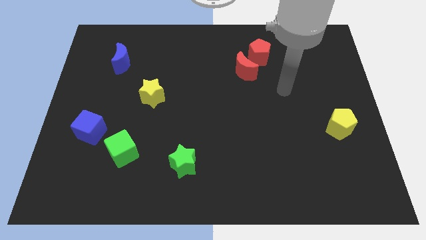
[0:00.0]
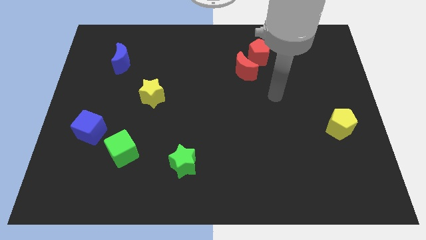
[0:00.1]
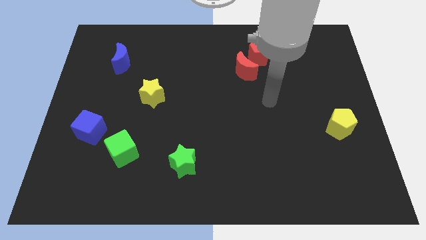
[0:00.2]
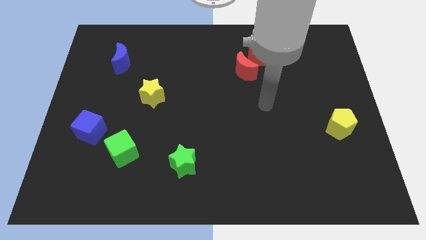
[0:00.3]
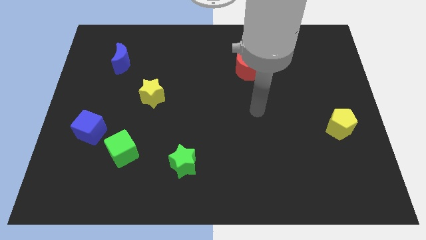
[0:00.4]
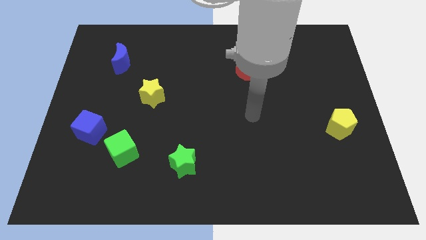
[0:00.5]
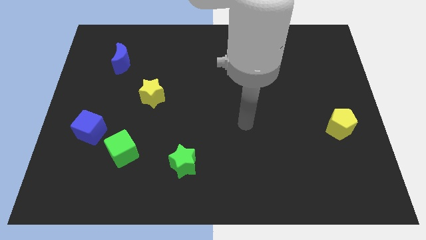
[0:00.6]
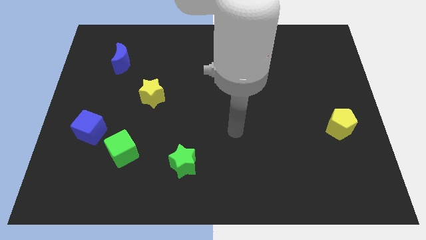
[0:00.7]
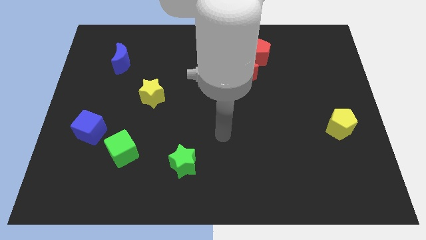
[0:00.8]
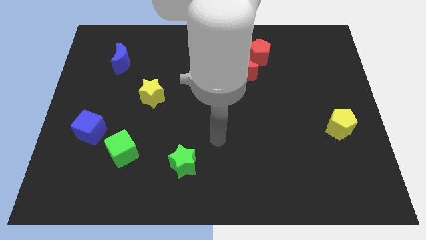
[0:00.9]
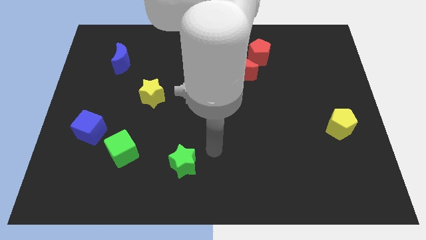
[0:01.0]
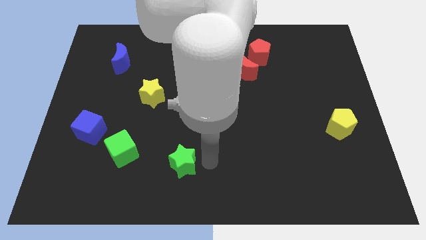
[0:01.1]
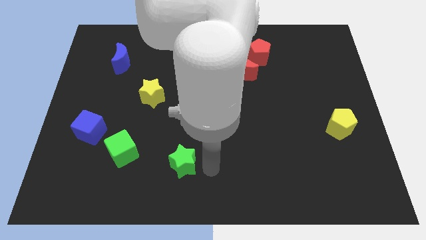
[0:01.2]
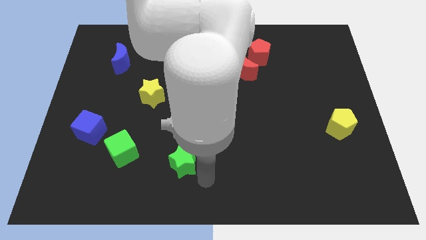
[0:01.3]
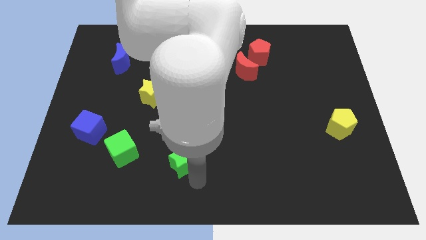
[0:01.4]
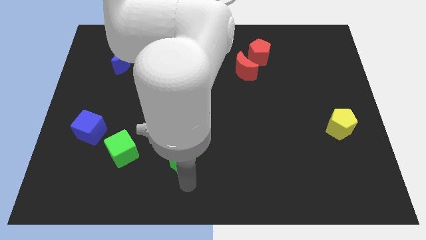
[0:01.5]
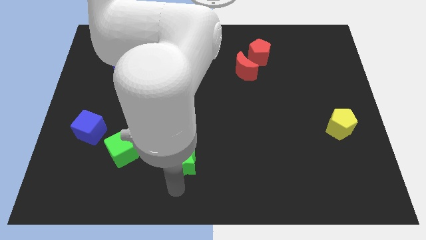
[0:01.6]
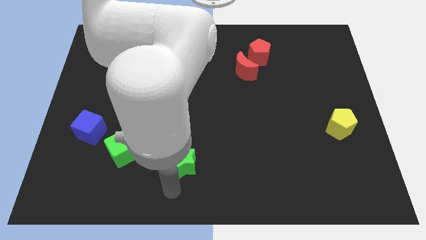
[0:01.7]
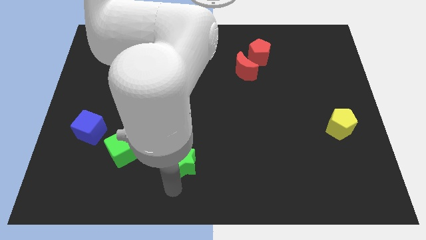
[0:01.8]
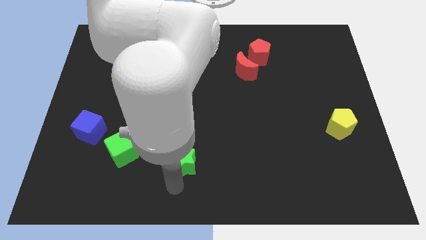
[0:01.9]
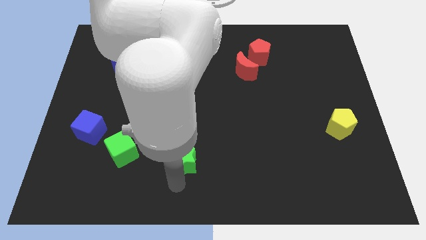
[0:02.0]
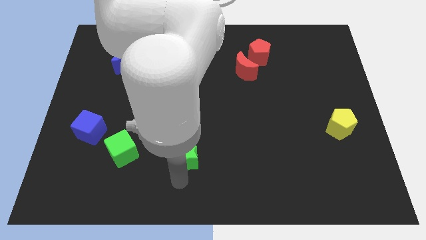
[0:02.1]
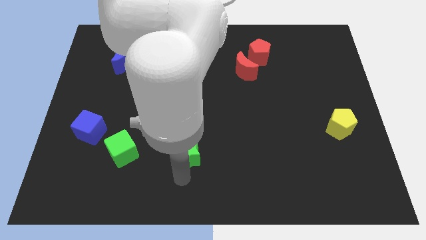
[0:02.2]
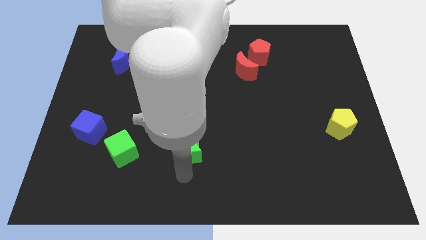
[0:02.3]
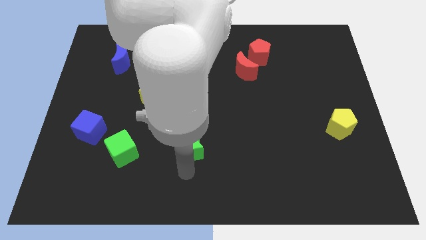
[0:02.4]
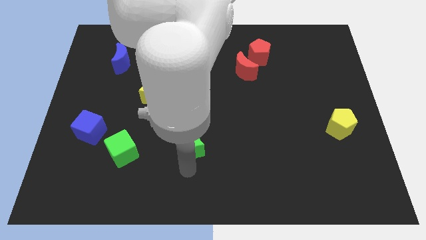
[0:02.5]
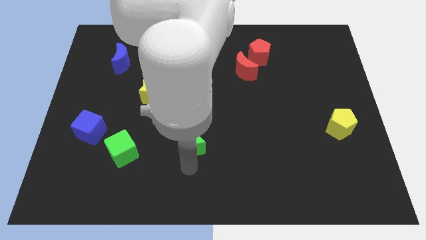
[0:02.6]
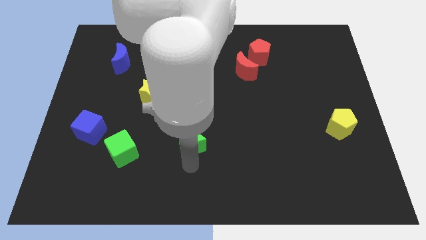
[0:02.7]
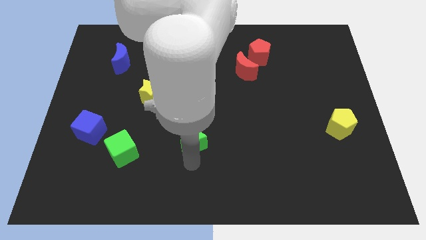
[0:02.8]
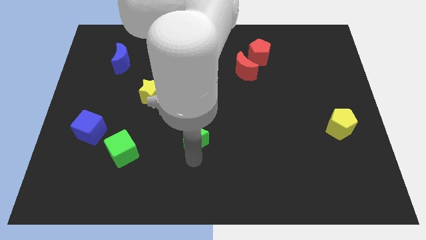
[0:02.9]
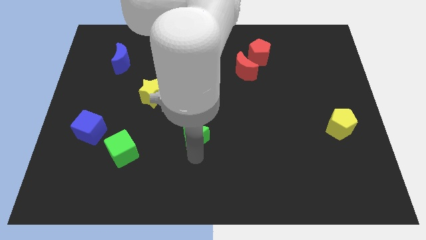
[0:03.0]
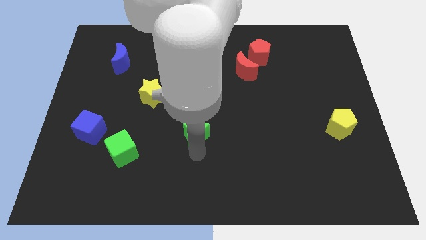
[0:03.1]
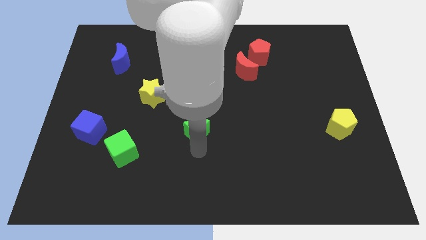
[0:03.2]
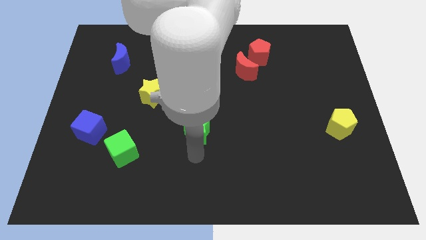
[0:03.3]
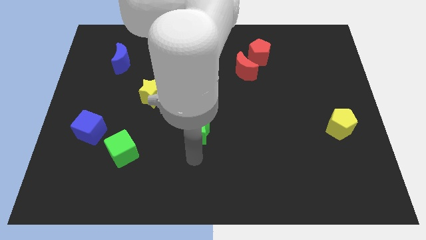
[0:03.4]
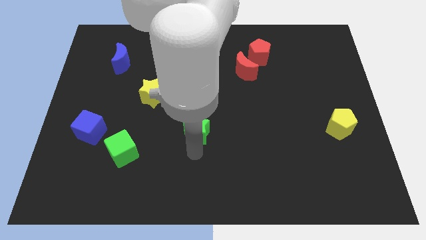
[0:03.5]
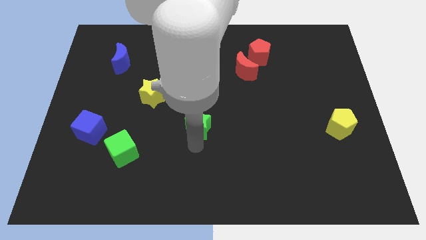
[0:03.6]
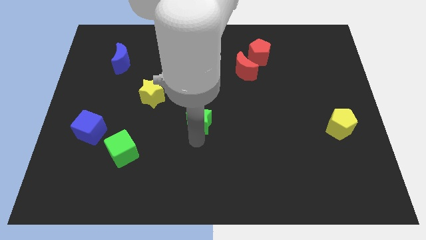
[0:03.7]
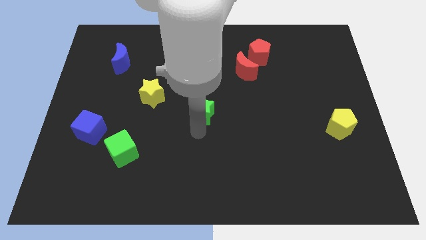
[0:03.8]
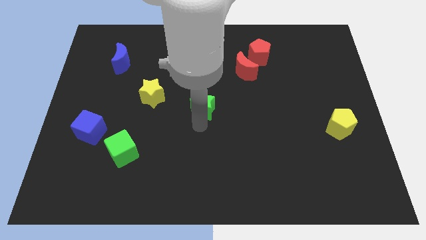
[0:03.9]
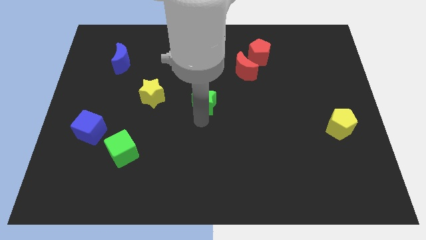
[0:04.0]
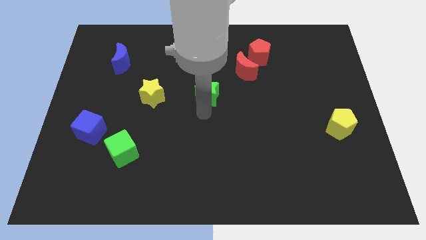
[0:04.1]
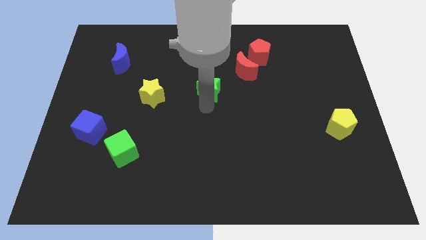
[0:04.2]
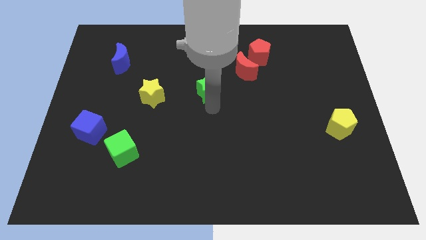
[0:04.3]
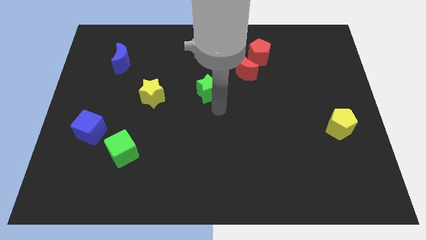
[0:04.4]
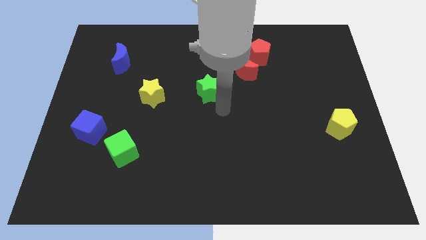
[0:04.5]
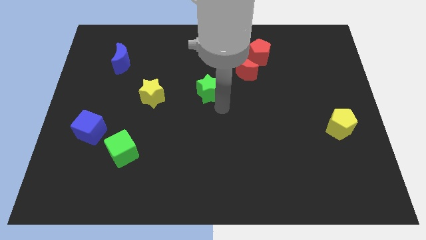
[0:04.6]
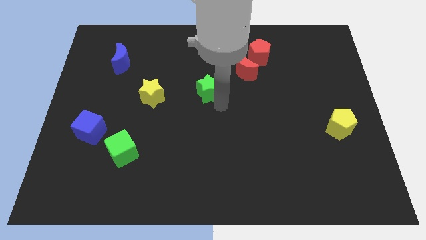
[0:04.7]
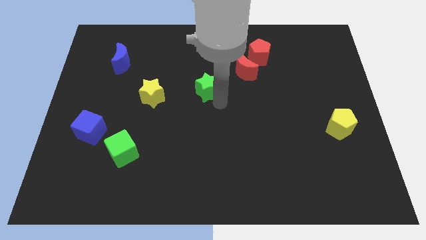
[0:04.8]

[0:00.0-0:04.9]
slide the green star upwards

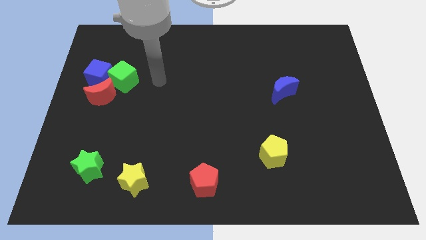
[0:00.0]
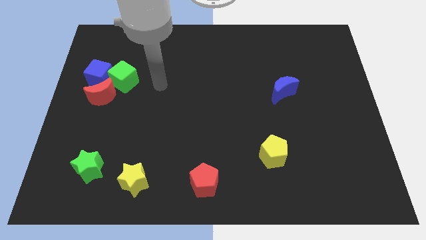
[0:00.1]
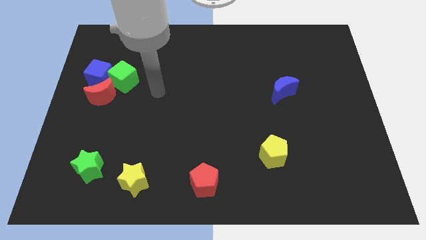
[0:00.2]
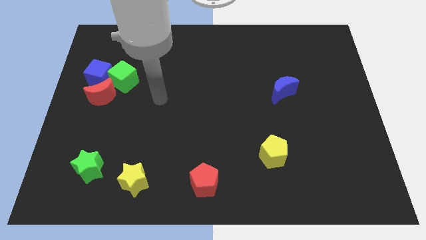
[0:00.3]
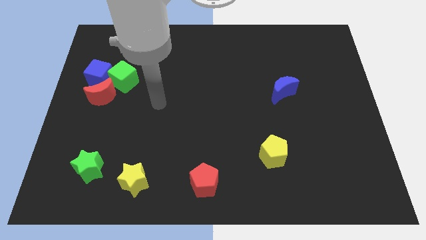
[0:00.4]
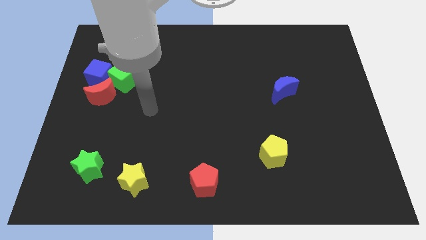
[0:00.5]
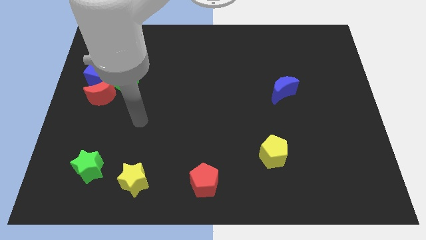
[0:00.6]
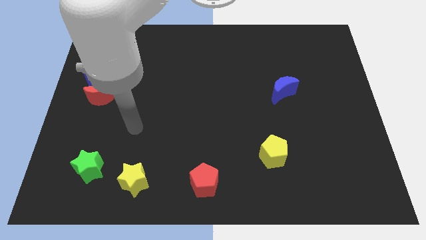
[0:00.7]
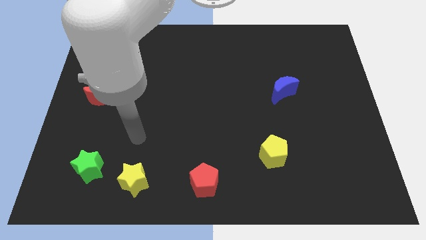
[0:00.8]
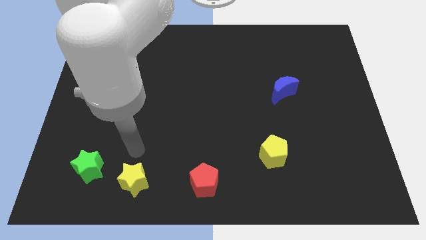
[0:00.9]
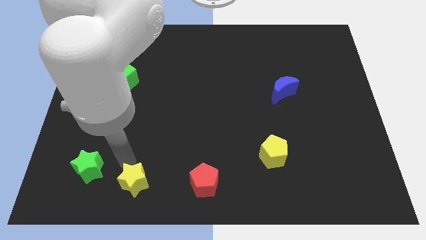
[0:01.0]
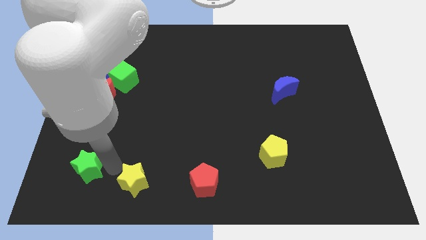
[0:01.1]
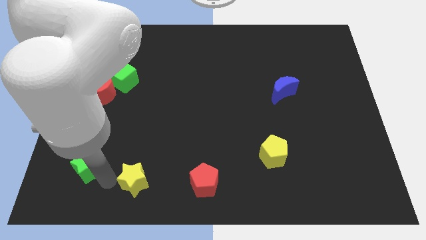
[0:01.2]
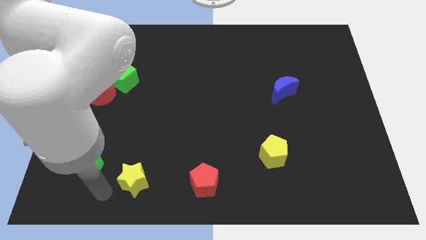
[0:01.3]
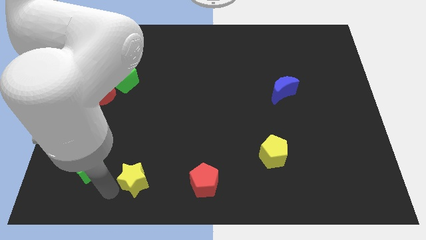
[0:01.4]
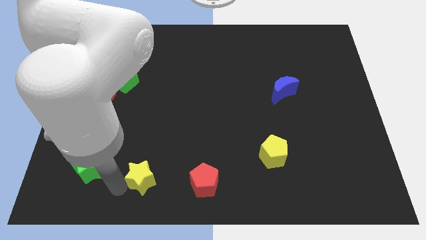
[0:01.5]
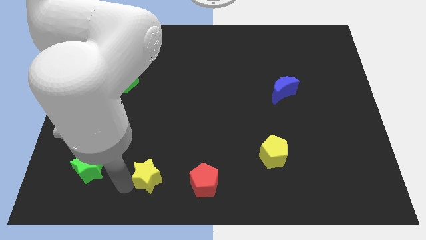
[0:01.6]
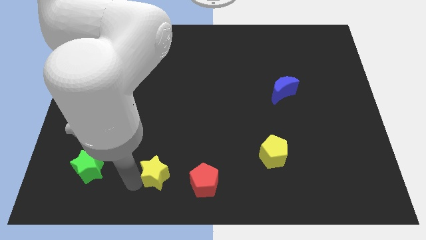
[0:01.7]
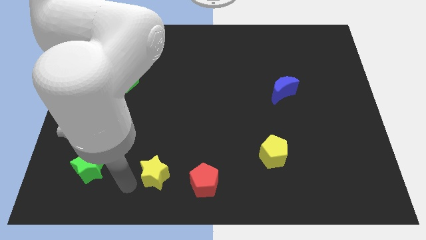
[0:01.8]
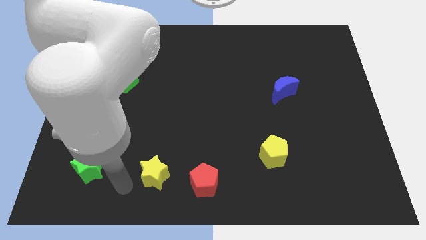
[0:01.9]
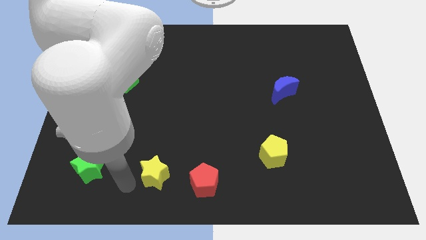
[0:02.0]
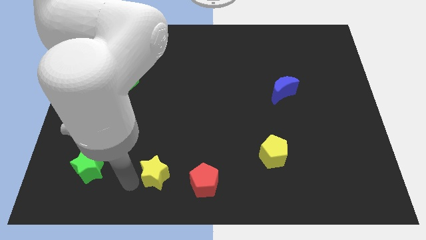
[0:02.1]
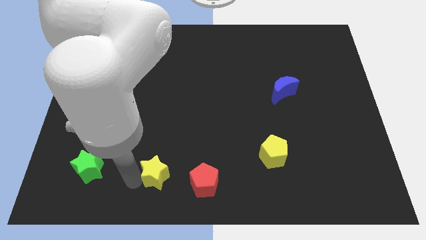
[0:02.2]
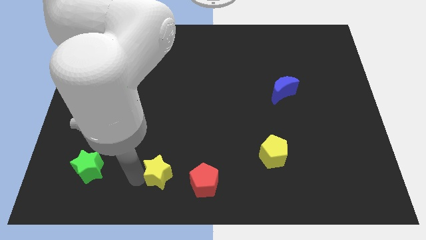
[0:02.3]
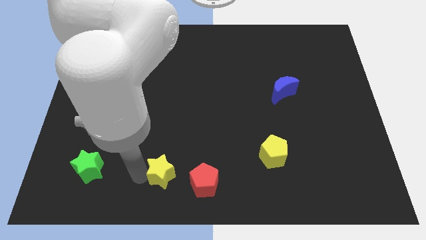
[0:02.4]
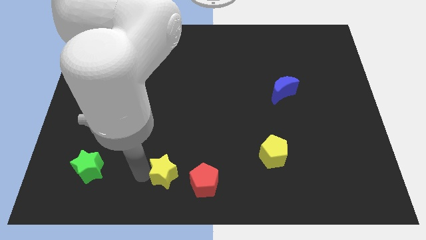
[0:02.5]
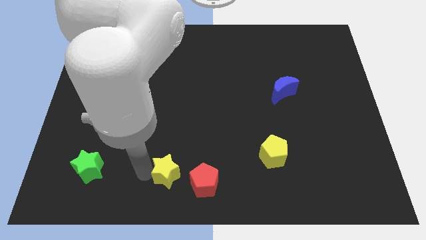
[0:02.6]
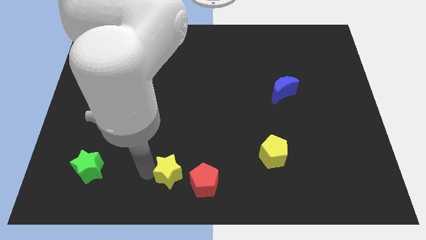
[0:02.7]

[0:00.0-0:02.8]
slightly push the yellow star to the right

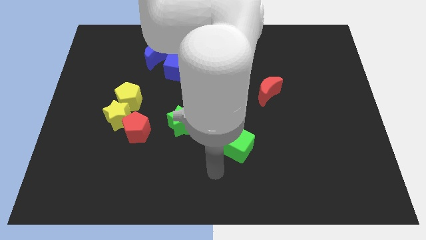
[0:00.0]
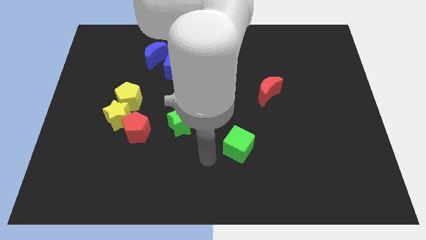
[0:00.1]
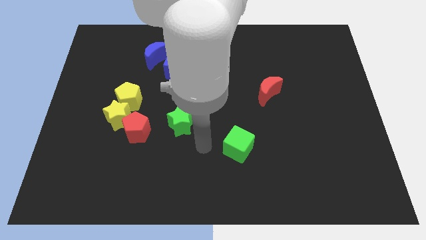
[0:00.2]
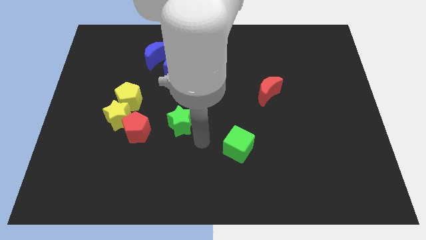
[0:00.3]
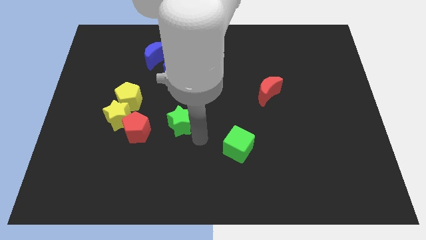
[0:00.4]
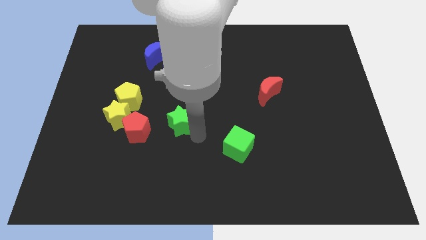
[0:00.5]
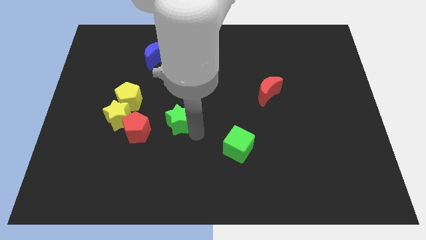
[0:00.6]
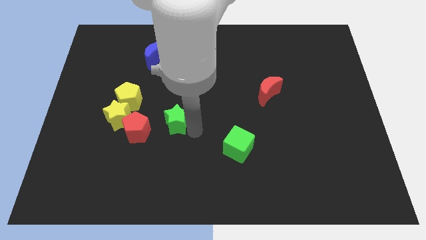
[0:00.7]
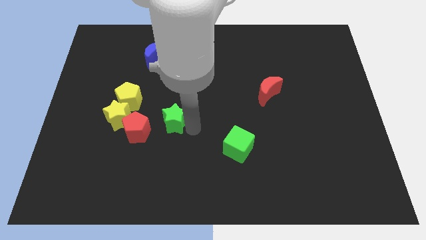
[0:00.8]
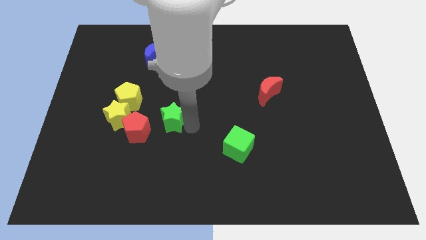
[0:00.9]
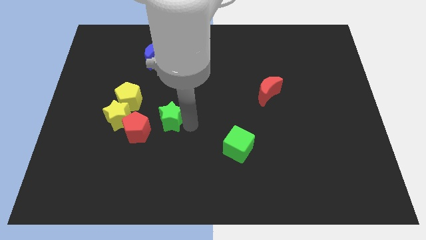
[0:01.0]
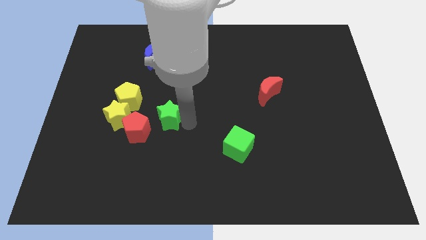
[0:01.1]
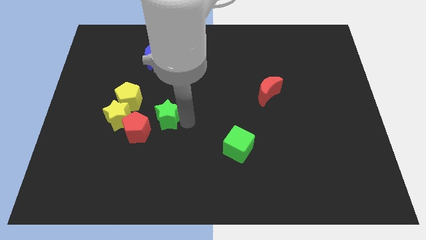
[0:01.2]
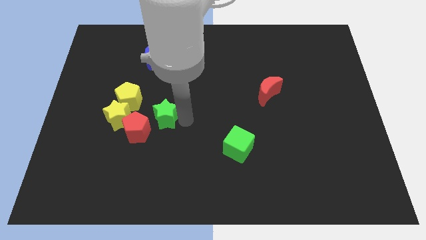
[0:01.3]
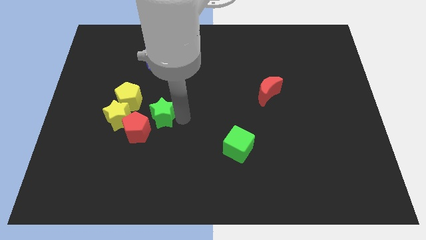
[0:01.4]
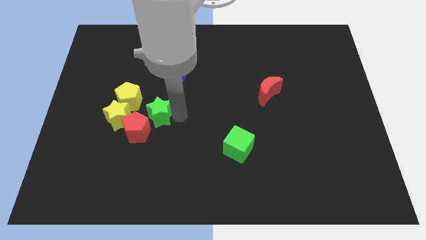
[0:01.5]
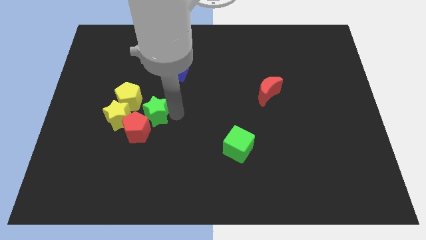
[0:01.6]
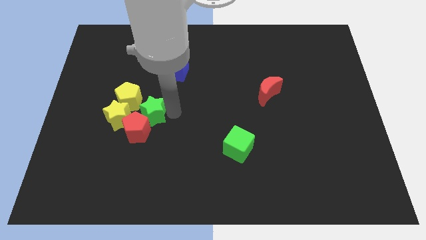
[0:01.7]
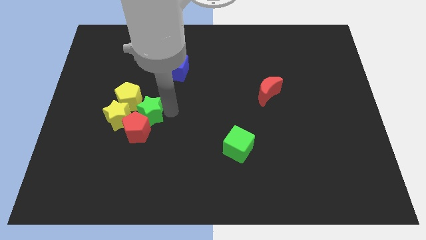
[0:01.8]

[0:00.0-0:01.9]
slightly push the green star diagonally upwards and left
